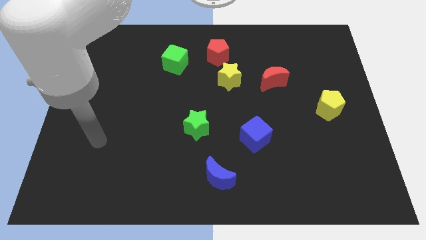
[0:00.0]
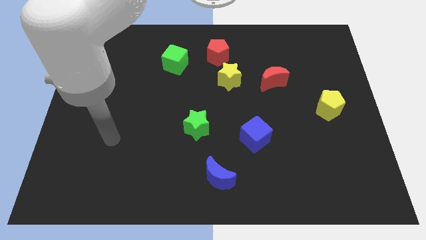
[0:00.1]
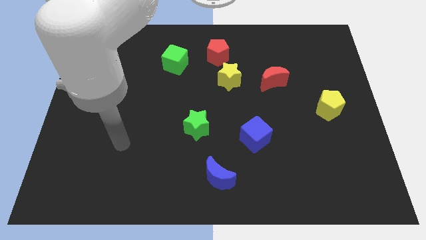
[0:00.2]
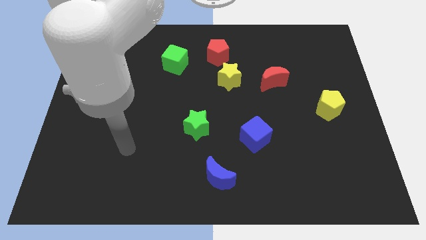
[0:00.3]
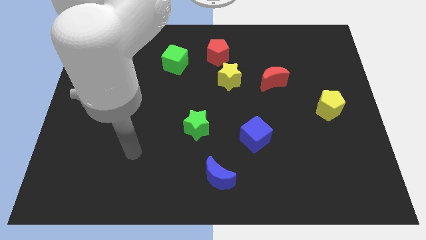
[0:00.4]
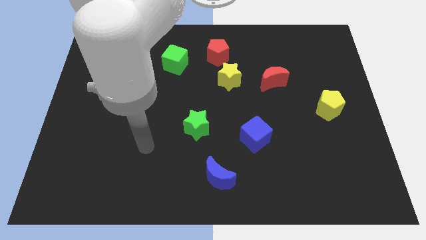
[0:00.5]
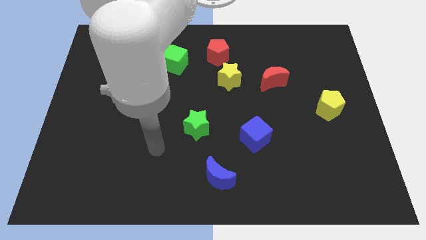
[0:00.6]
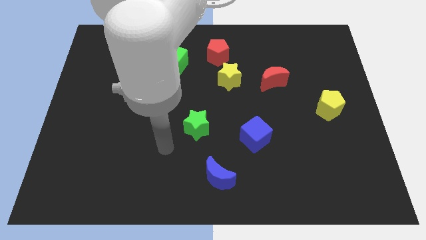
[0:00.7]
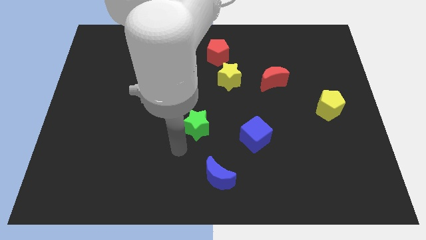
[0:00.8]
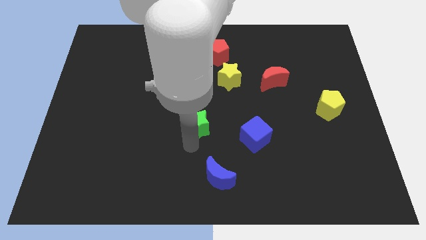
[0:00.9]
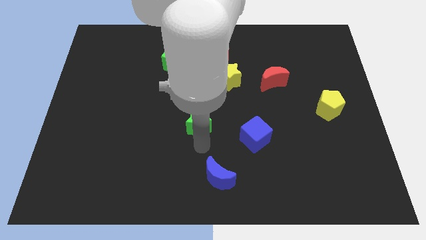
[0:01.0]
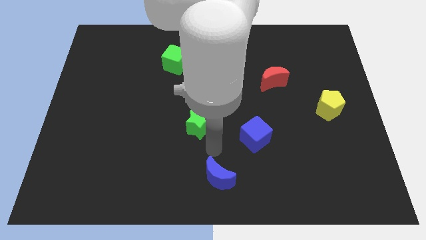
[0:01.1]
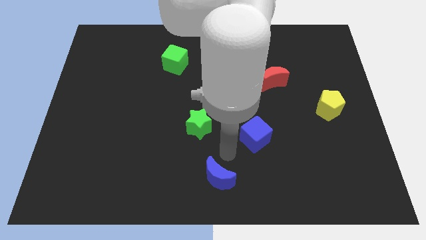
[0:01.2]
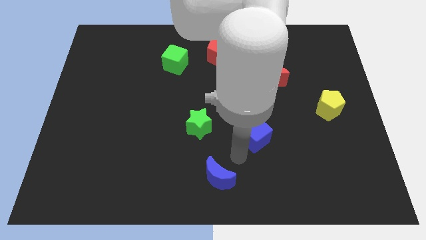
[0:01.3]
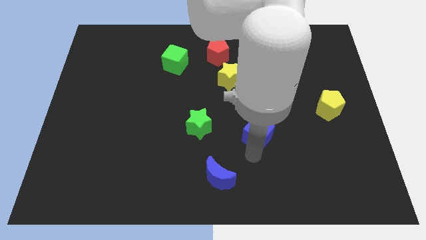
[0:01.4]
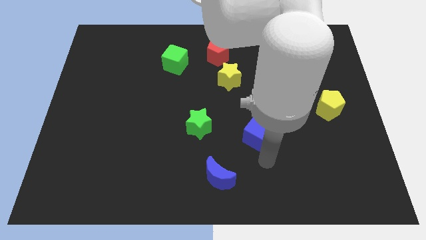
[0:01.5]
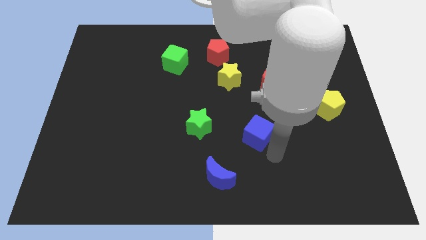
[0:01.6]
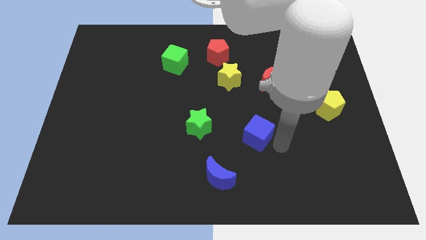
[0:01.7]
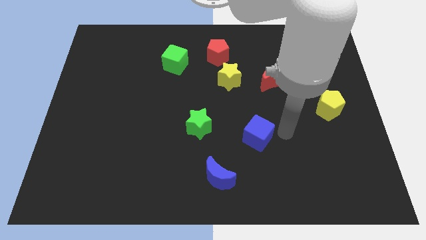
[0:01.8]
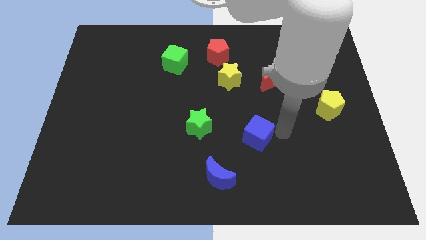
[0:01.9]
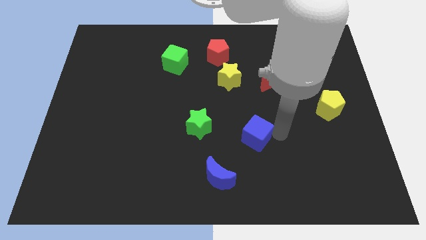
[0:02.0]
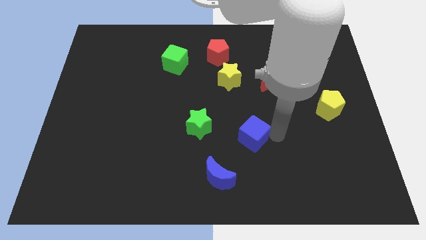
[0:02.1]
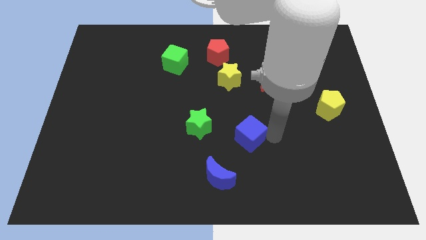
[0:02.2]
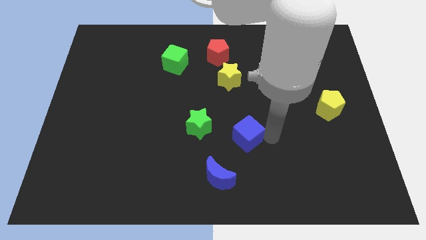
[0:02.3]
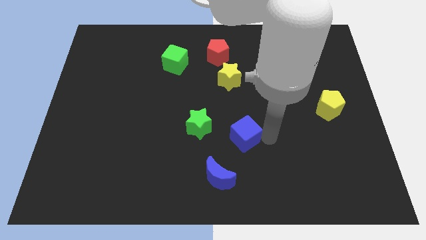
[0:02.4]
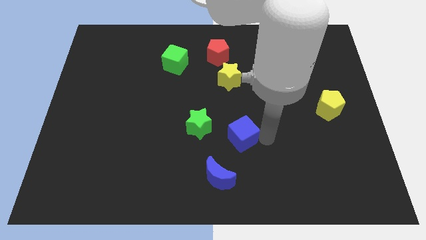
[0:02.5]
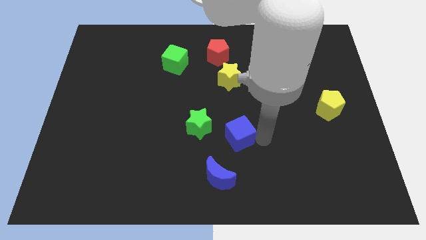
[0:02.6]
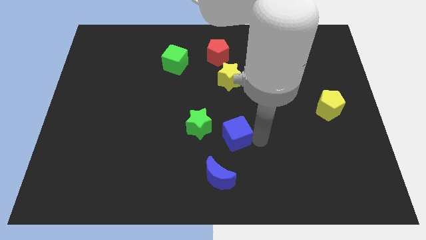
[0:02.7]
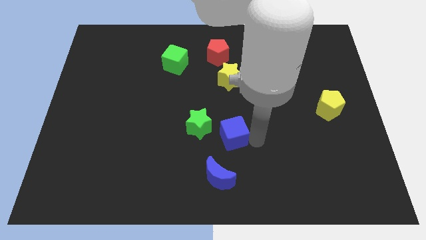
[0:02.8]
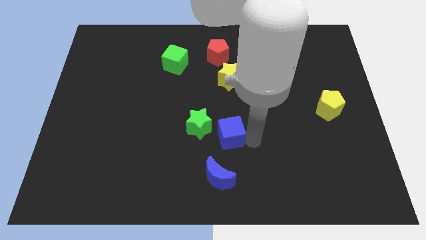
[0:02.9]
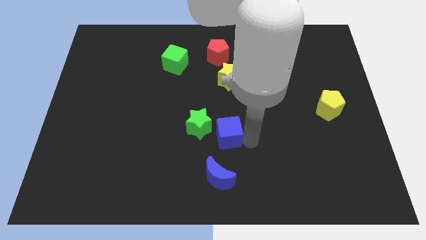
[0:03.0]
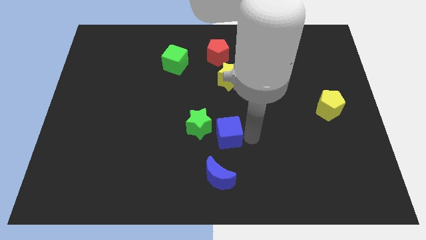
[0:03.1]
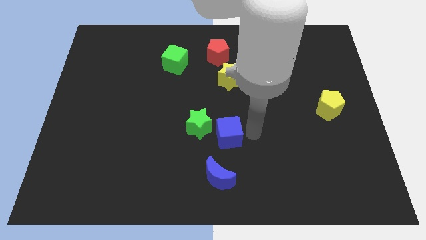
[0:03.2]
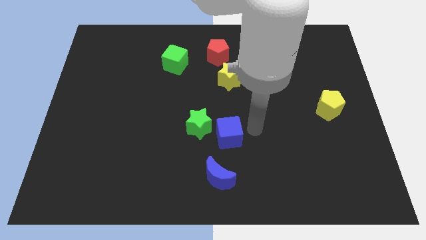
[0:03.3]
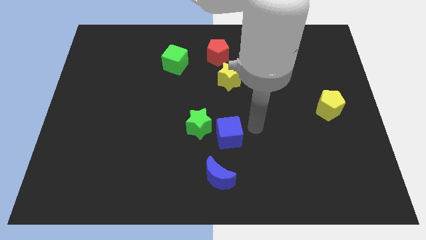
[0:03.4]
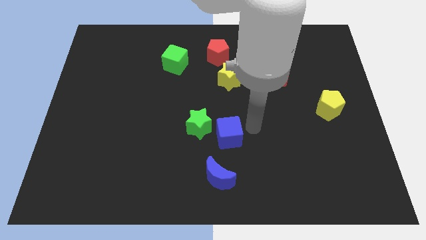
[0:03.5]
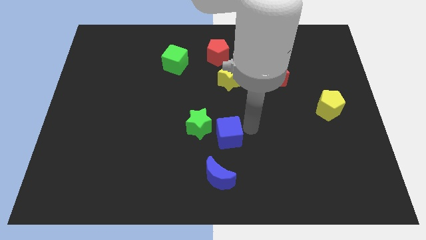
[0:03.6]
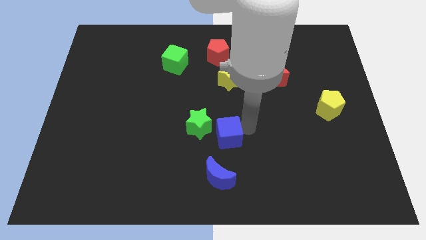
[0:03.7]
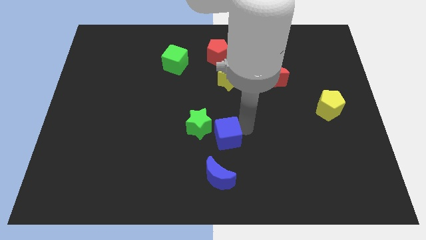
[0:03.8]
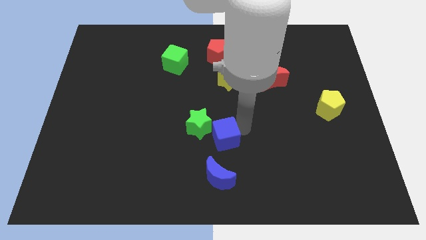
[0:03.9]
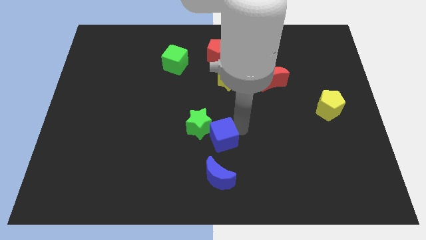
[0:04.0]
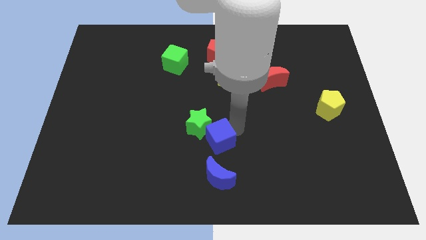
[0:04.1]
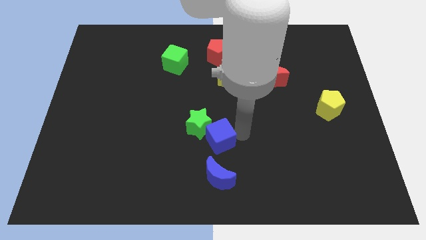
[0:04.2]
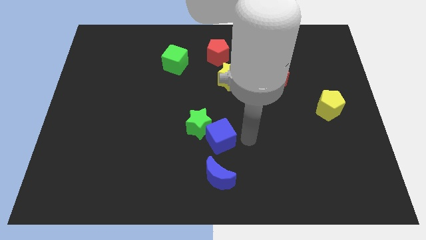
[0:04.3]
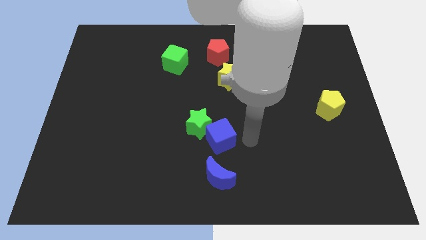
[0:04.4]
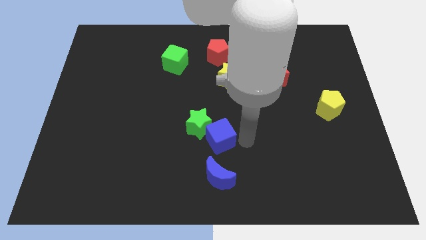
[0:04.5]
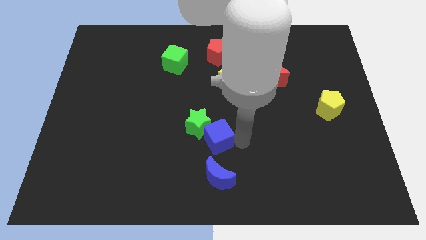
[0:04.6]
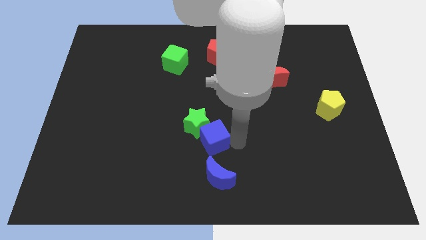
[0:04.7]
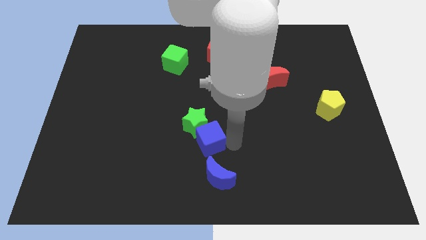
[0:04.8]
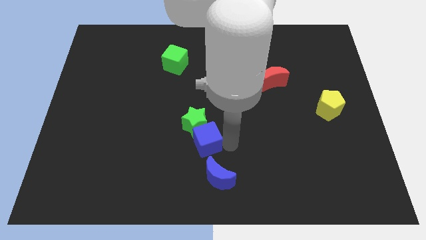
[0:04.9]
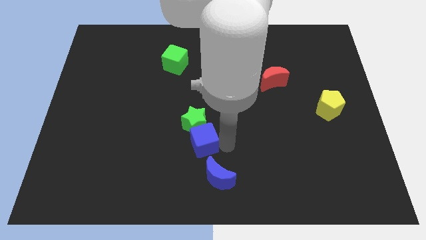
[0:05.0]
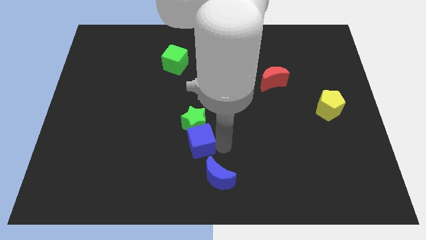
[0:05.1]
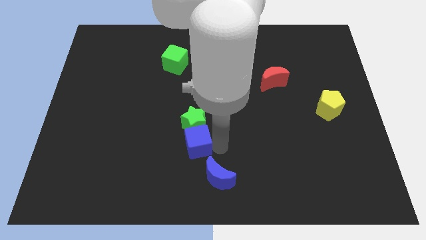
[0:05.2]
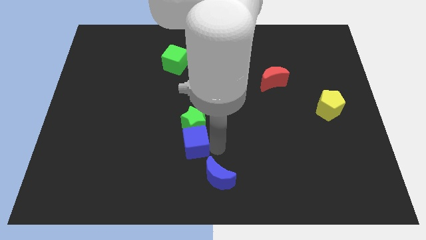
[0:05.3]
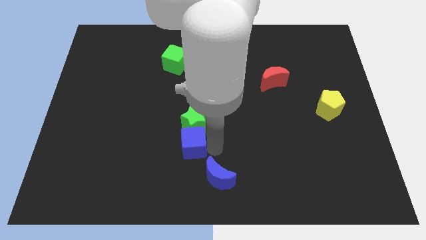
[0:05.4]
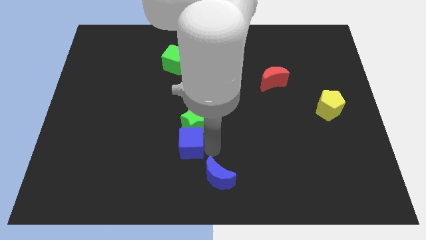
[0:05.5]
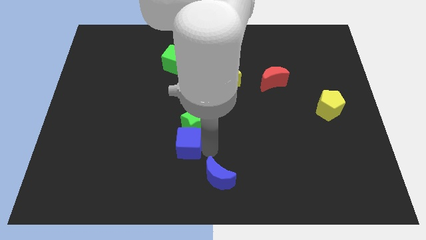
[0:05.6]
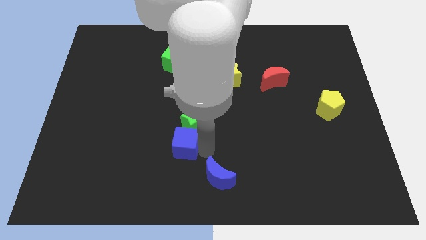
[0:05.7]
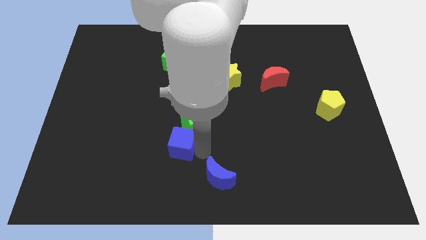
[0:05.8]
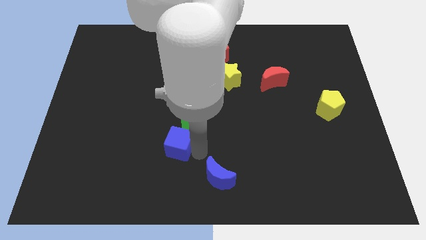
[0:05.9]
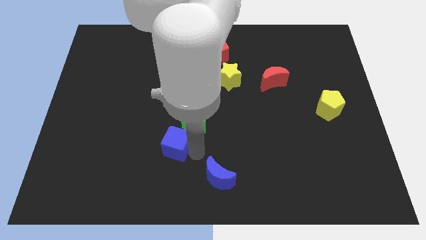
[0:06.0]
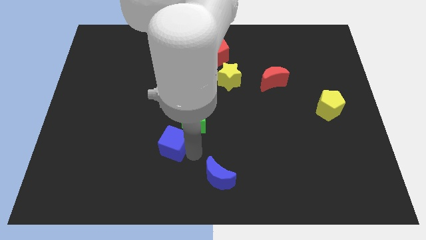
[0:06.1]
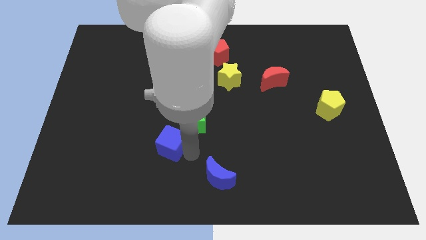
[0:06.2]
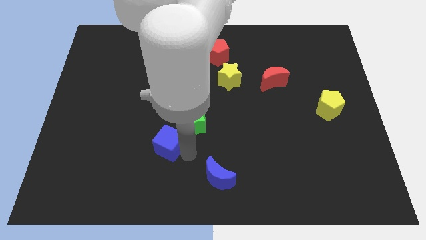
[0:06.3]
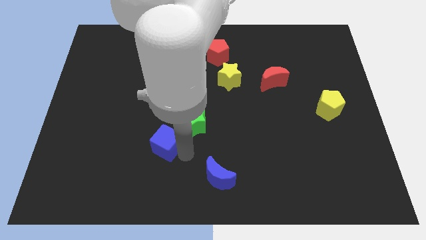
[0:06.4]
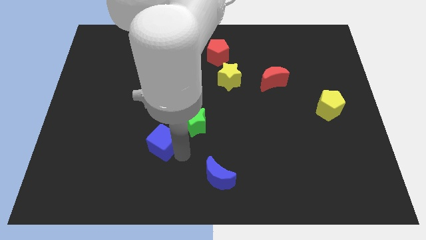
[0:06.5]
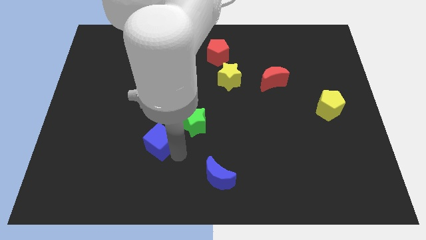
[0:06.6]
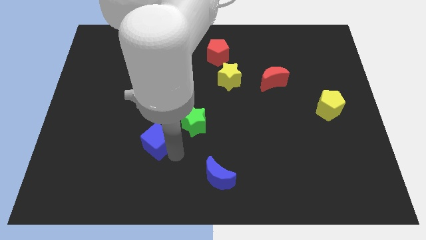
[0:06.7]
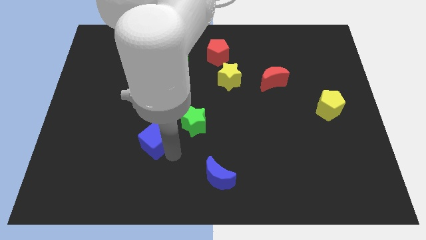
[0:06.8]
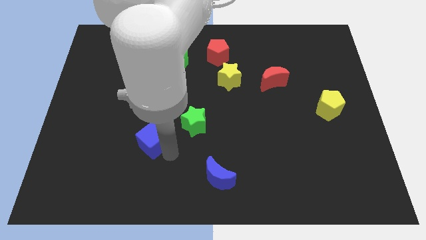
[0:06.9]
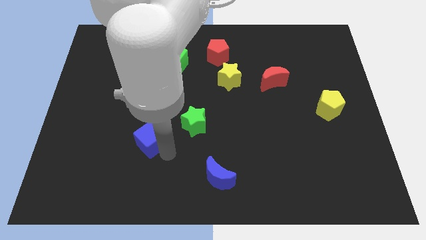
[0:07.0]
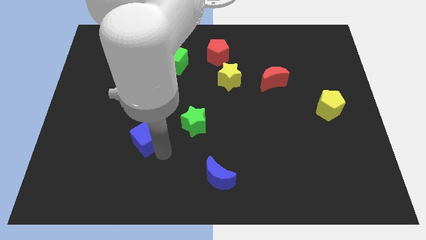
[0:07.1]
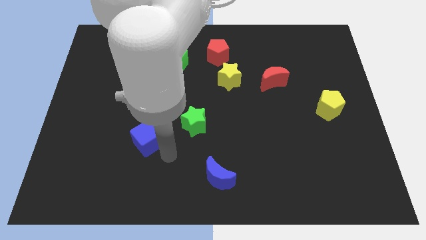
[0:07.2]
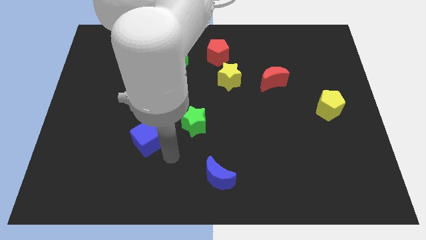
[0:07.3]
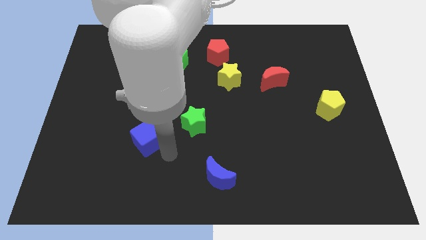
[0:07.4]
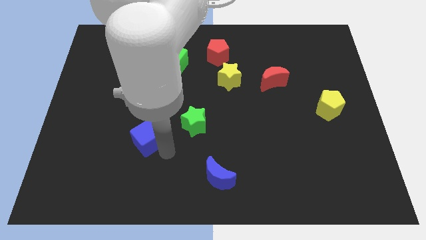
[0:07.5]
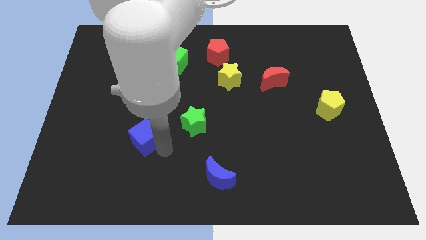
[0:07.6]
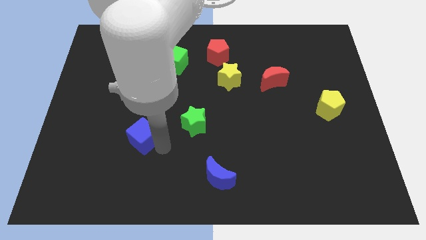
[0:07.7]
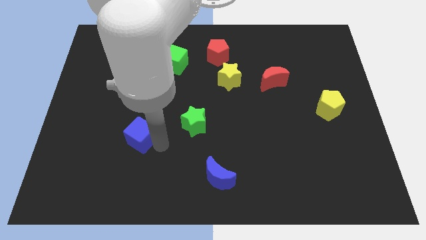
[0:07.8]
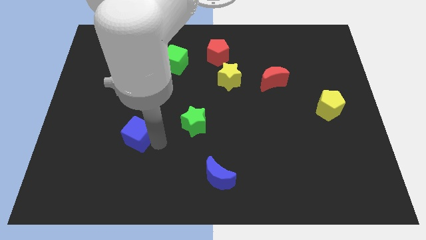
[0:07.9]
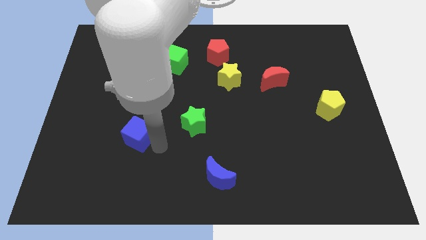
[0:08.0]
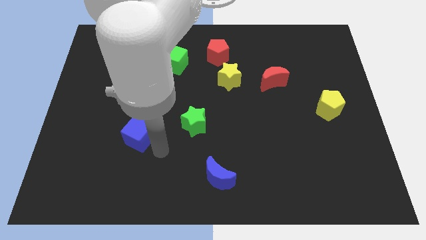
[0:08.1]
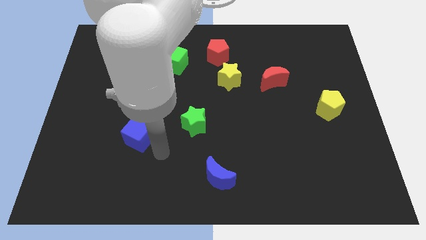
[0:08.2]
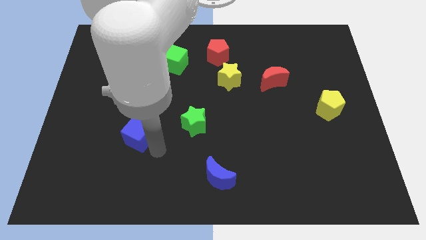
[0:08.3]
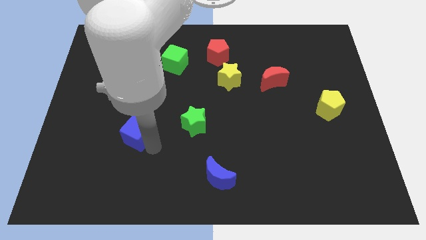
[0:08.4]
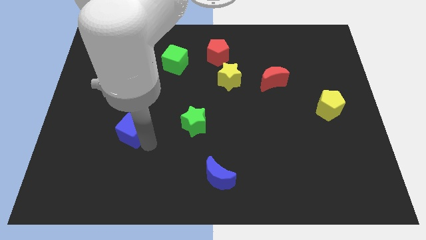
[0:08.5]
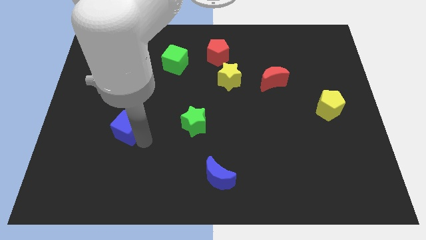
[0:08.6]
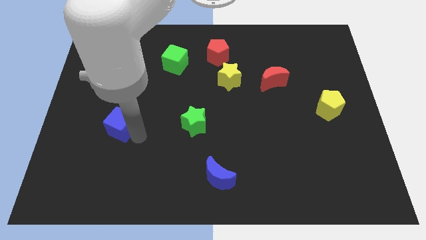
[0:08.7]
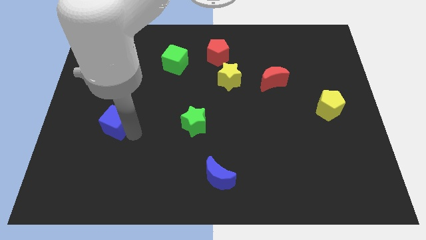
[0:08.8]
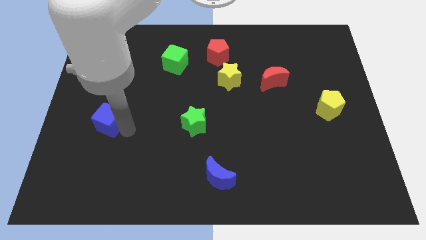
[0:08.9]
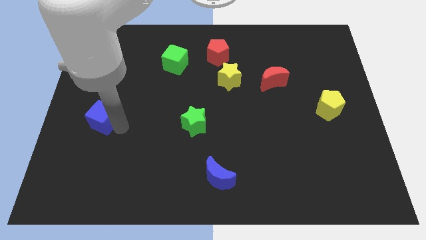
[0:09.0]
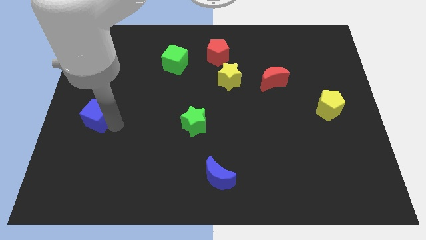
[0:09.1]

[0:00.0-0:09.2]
push the blue cube to the left side
